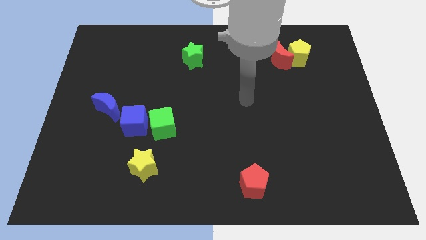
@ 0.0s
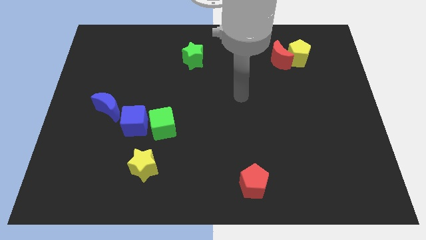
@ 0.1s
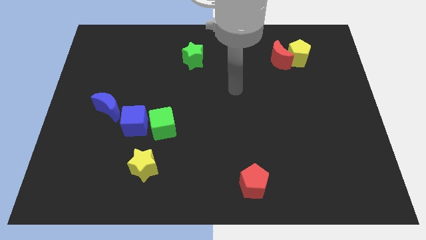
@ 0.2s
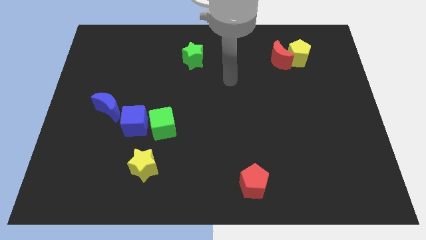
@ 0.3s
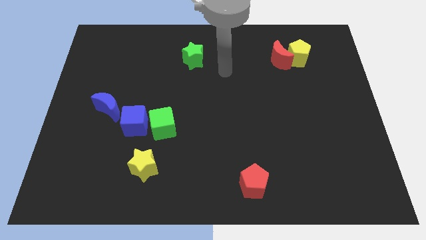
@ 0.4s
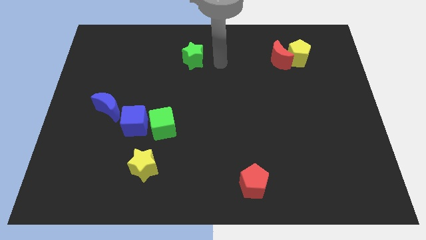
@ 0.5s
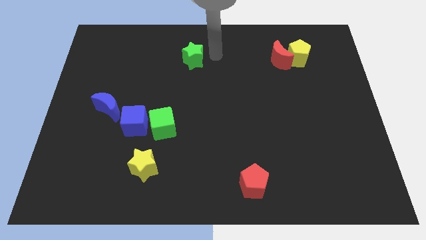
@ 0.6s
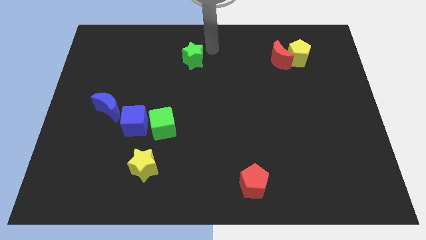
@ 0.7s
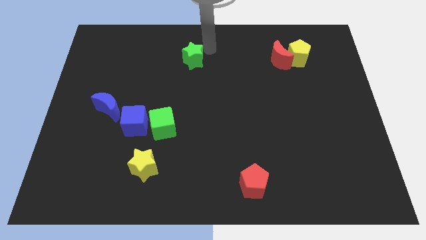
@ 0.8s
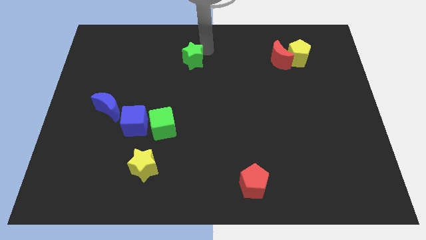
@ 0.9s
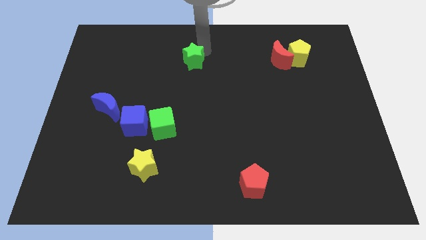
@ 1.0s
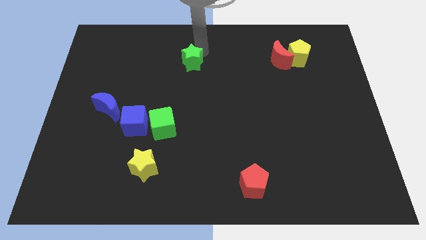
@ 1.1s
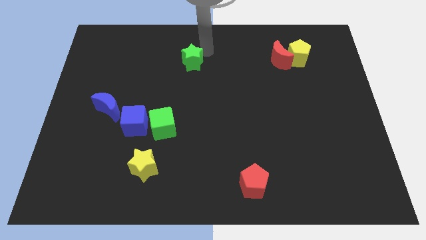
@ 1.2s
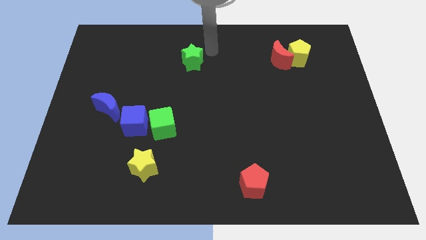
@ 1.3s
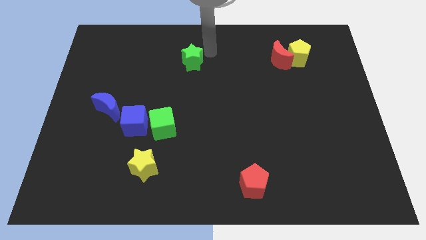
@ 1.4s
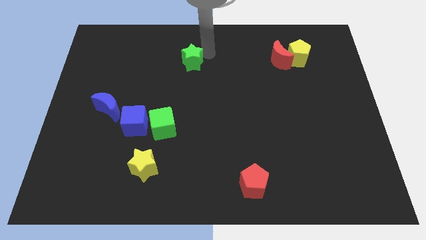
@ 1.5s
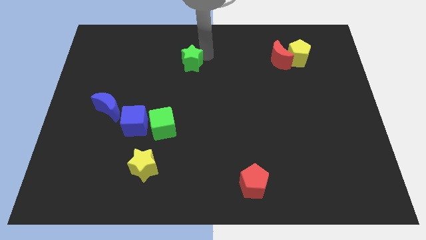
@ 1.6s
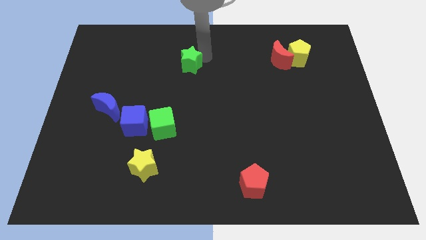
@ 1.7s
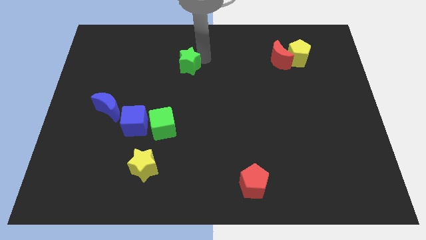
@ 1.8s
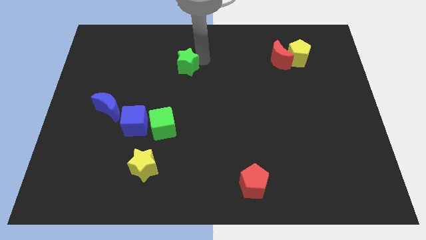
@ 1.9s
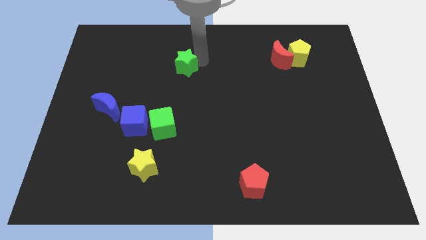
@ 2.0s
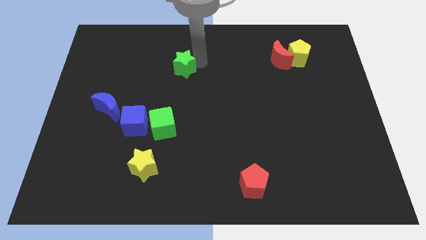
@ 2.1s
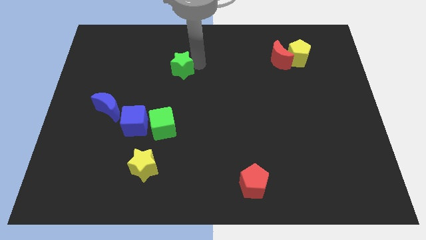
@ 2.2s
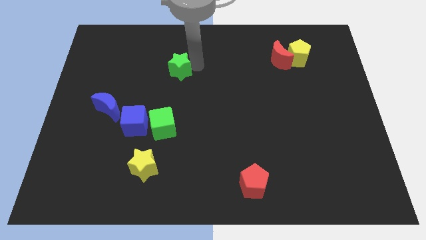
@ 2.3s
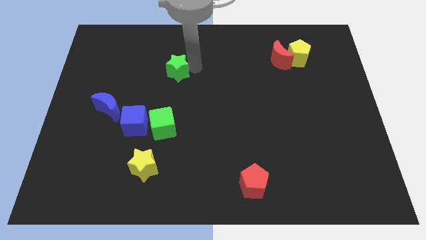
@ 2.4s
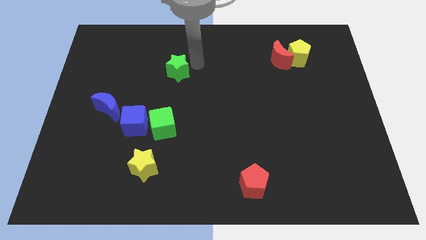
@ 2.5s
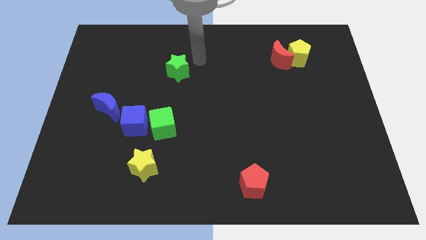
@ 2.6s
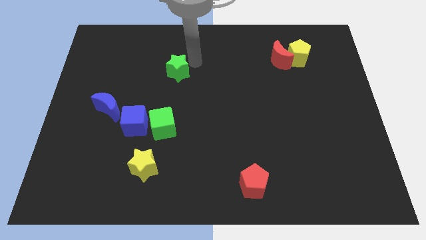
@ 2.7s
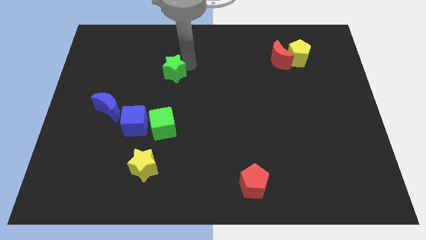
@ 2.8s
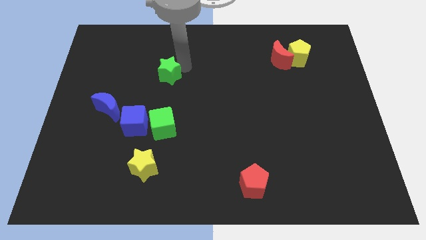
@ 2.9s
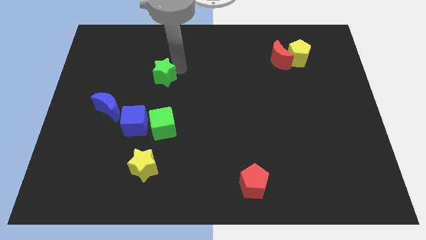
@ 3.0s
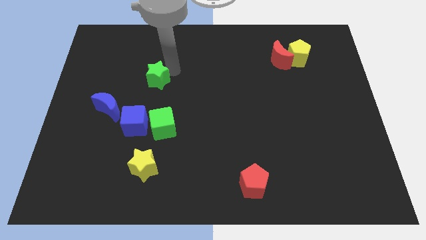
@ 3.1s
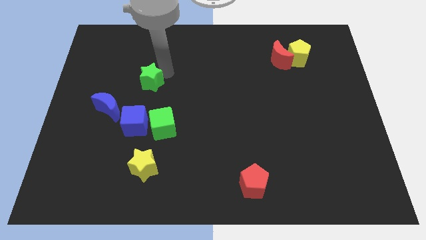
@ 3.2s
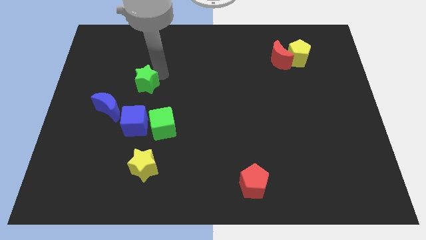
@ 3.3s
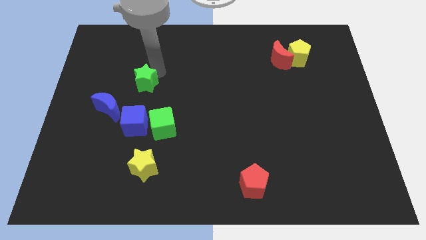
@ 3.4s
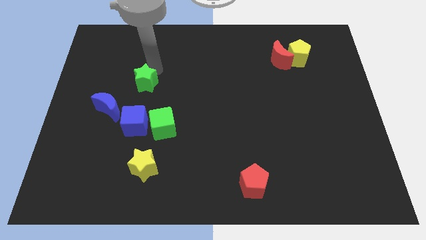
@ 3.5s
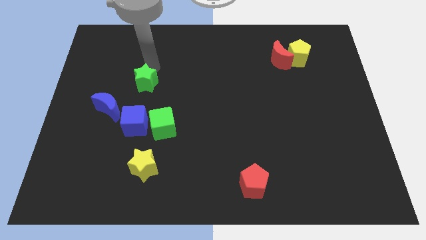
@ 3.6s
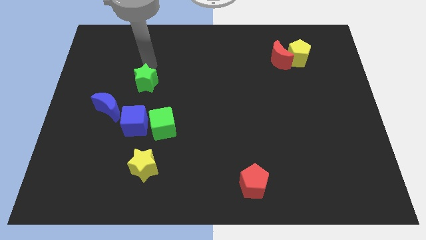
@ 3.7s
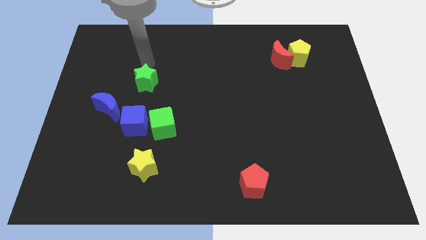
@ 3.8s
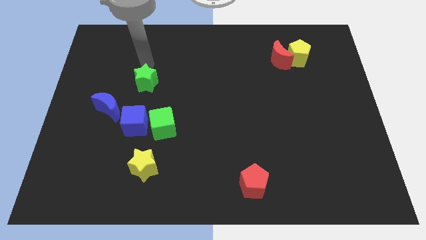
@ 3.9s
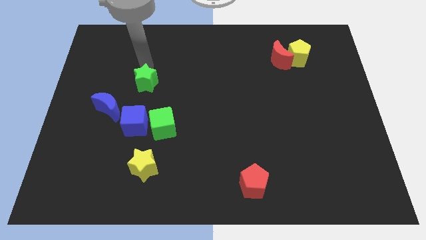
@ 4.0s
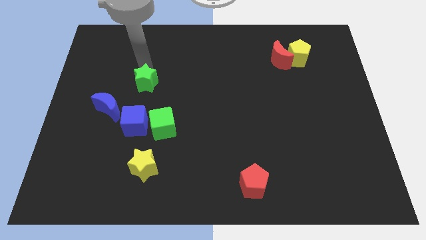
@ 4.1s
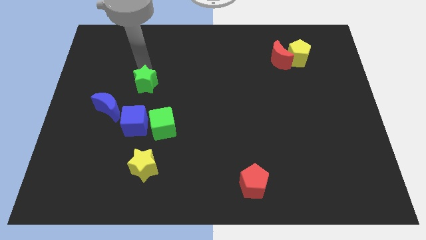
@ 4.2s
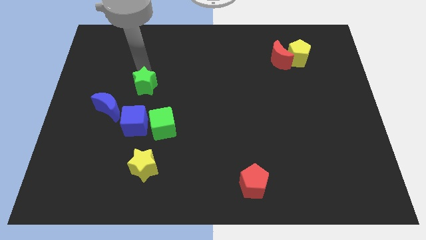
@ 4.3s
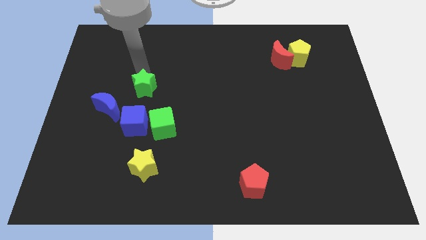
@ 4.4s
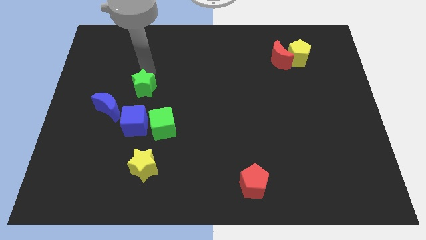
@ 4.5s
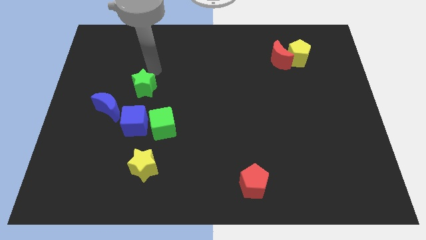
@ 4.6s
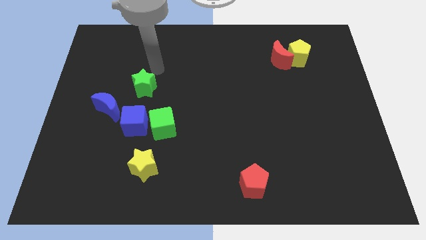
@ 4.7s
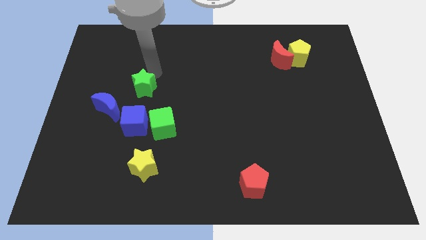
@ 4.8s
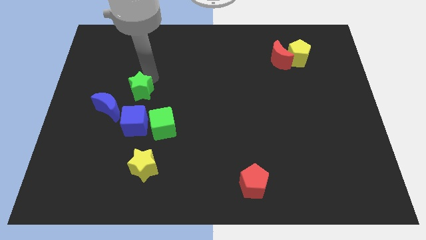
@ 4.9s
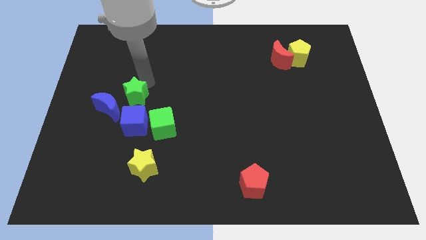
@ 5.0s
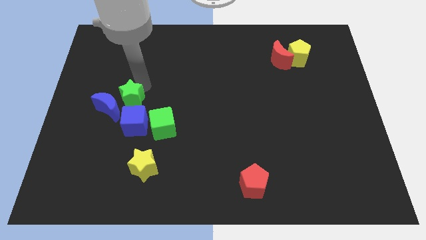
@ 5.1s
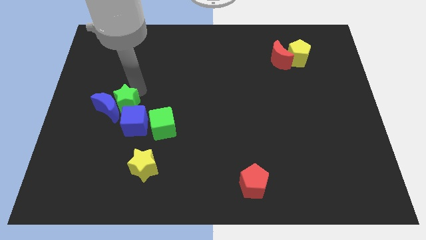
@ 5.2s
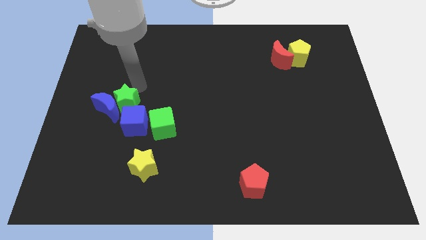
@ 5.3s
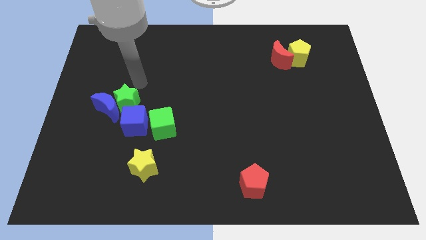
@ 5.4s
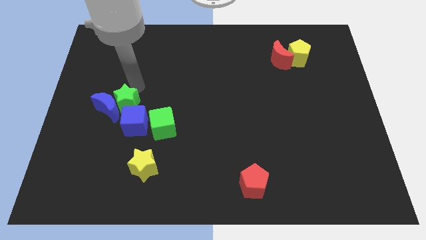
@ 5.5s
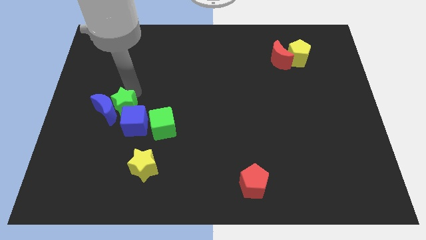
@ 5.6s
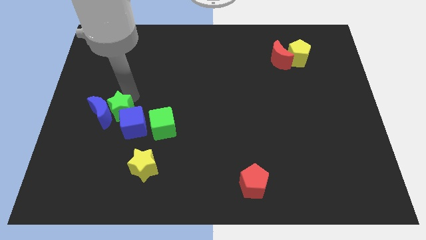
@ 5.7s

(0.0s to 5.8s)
put the green star left of the blue cube

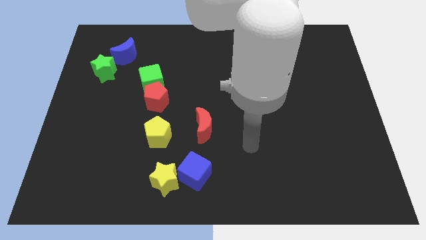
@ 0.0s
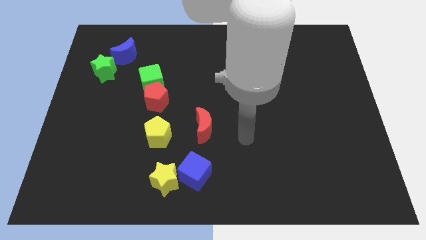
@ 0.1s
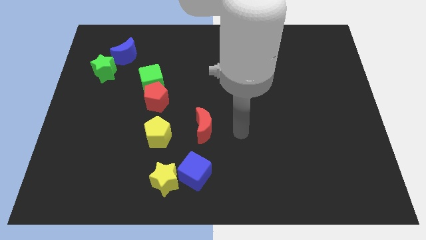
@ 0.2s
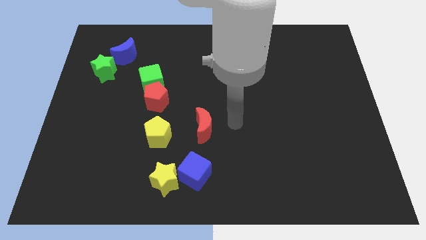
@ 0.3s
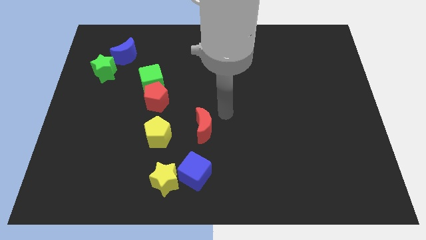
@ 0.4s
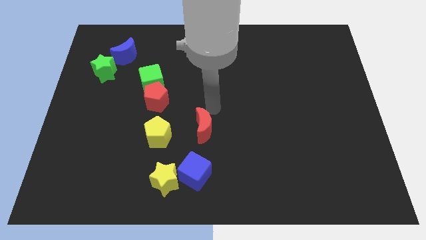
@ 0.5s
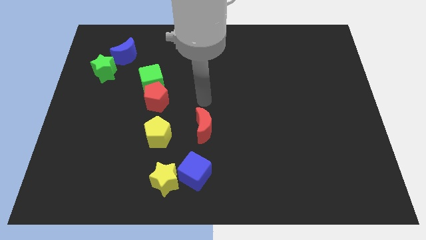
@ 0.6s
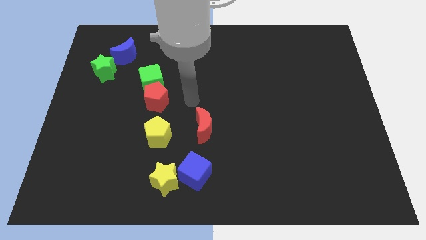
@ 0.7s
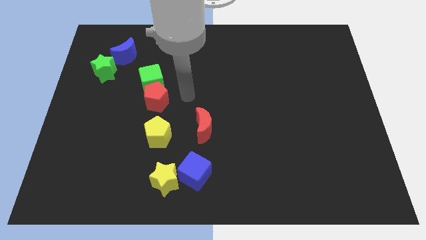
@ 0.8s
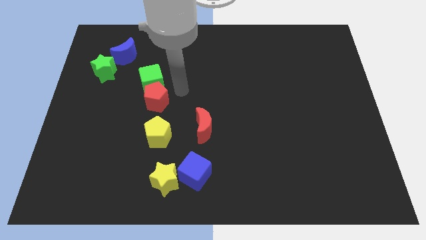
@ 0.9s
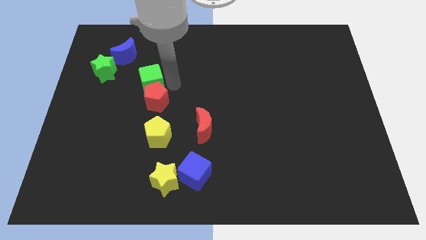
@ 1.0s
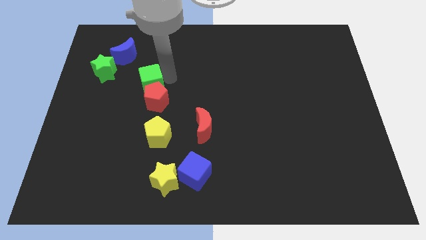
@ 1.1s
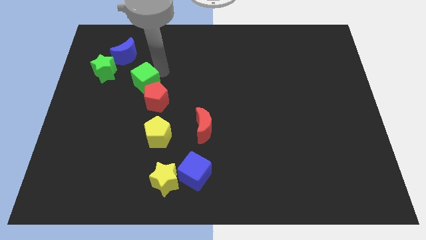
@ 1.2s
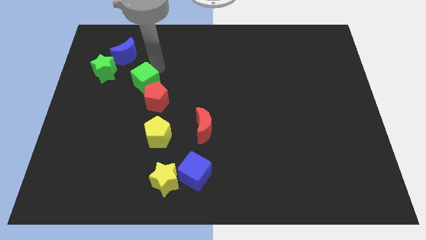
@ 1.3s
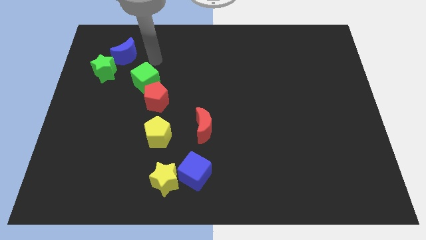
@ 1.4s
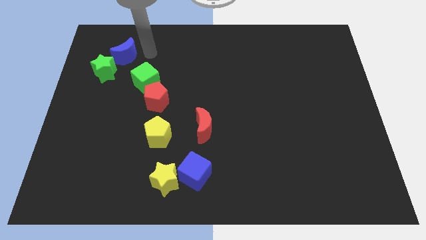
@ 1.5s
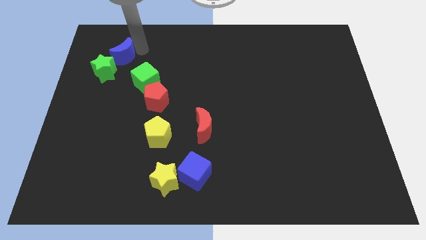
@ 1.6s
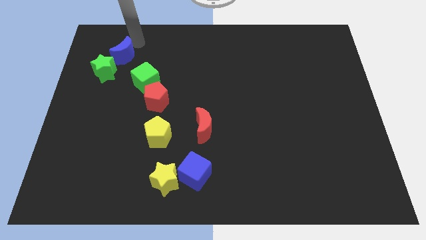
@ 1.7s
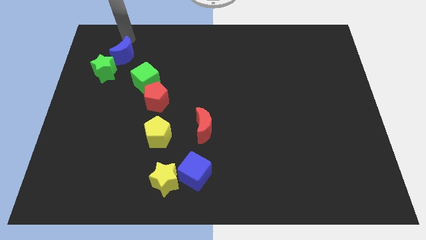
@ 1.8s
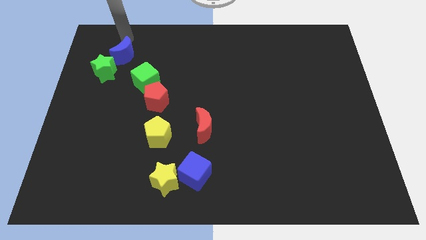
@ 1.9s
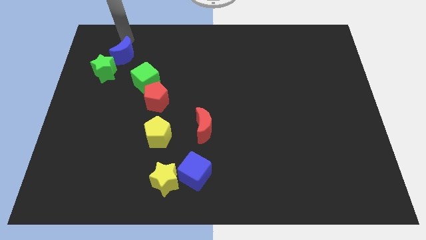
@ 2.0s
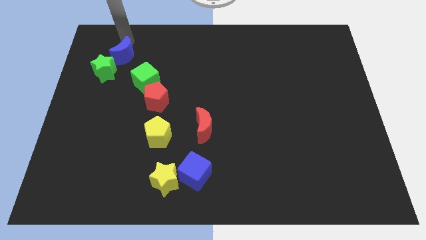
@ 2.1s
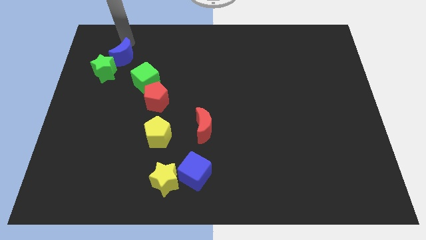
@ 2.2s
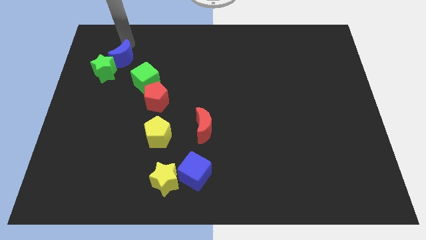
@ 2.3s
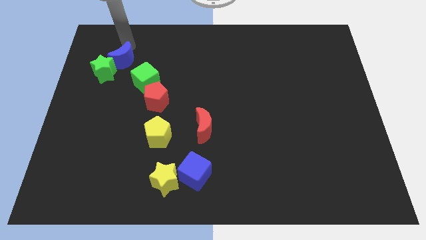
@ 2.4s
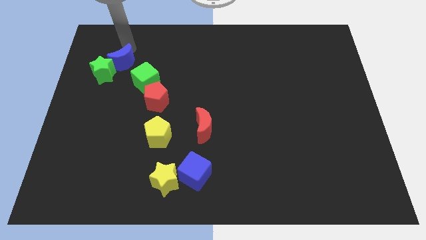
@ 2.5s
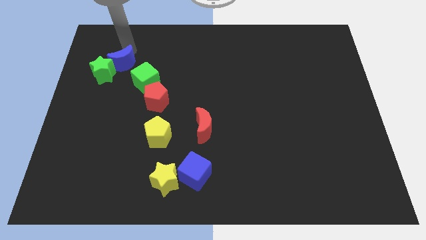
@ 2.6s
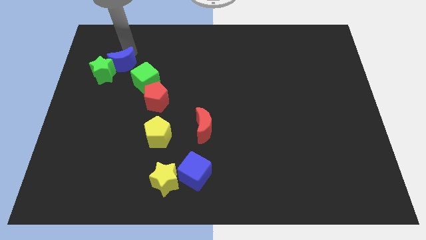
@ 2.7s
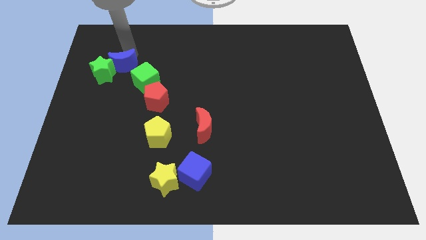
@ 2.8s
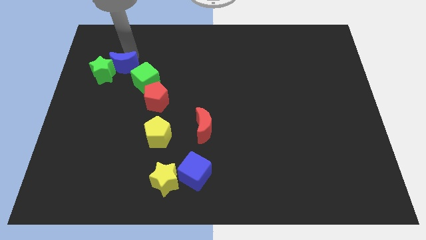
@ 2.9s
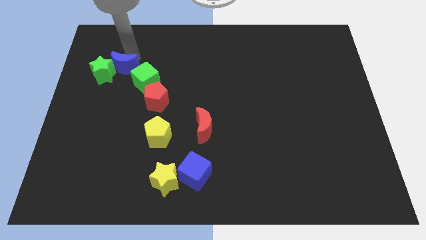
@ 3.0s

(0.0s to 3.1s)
slide the blue moon to the left side of the green cube
